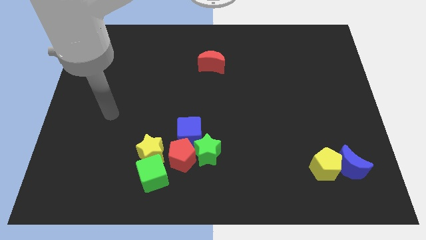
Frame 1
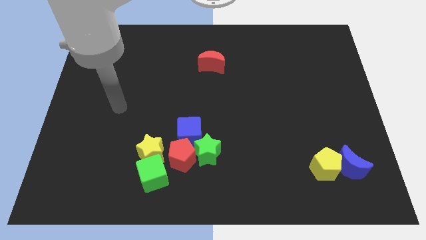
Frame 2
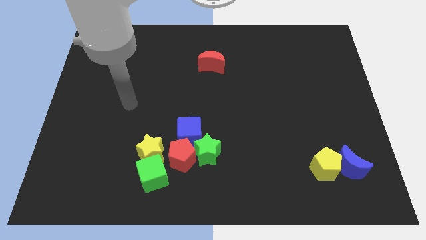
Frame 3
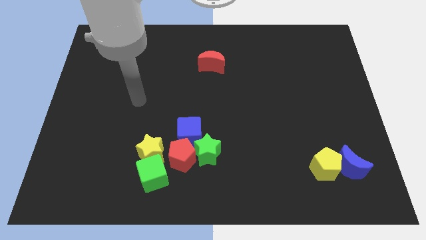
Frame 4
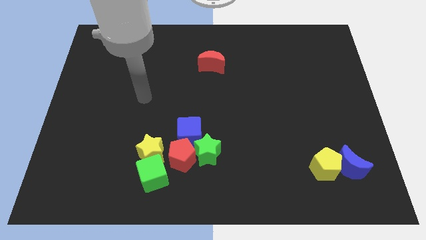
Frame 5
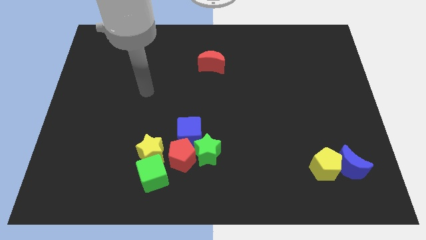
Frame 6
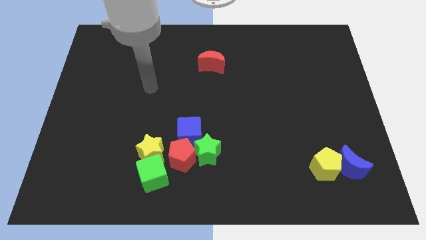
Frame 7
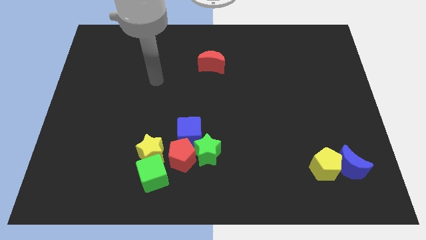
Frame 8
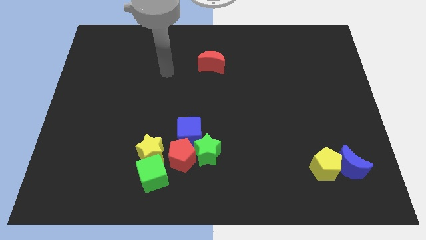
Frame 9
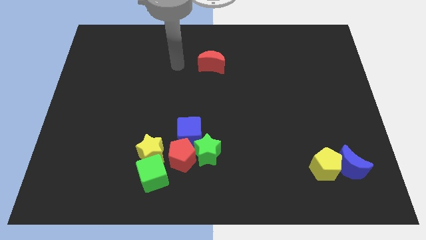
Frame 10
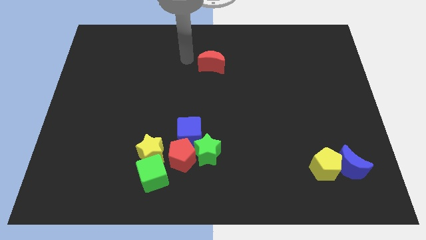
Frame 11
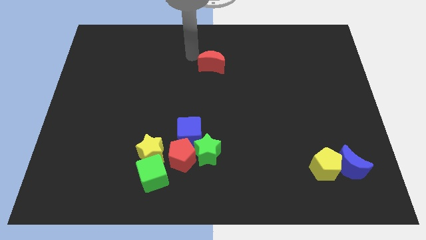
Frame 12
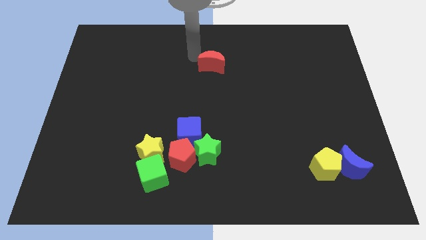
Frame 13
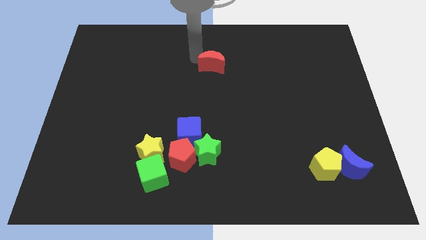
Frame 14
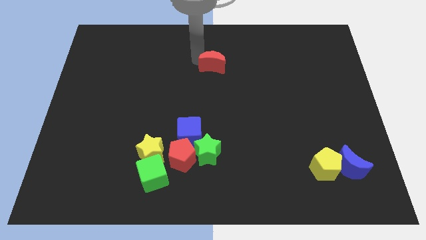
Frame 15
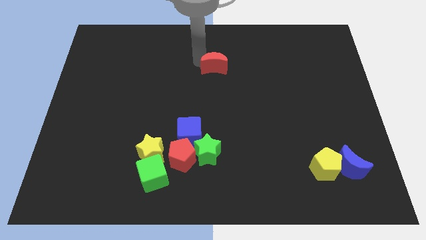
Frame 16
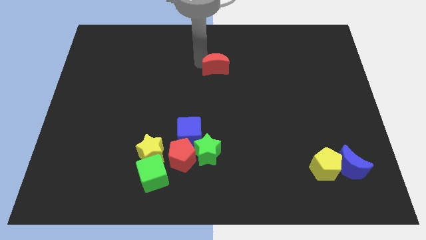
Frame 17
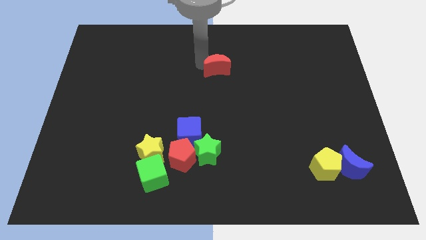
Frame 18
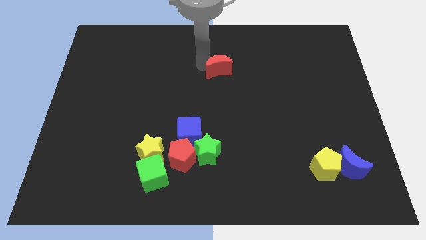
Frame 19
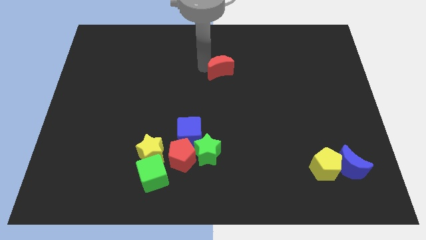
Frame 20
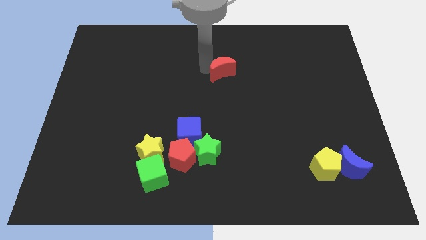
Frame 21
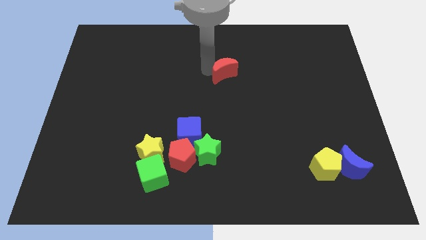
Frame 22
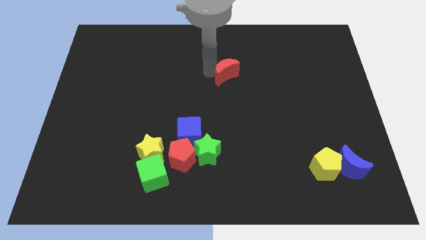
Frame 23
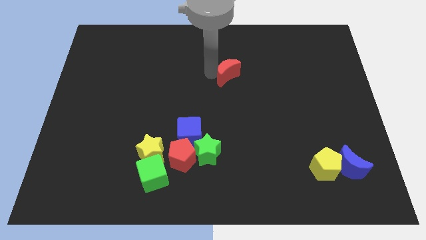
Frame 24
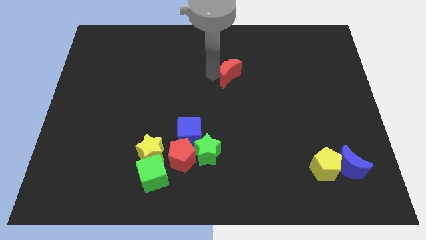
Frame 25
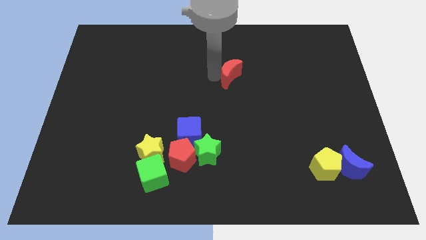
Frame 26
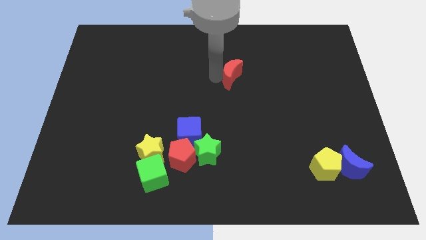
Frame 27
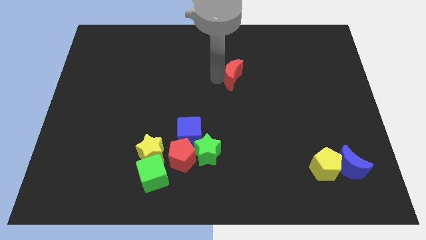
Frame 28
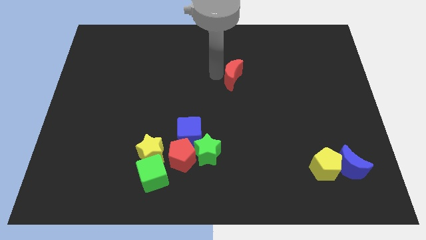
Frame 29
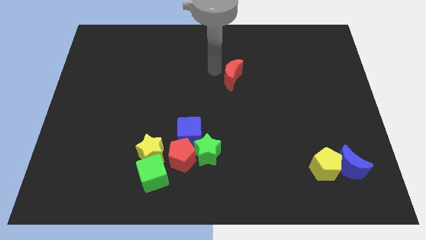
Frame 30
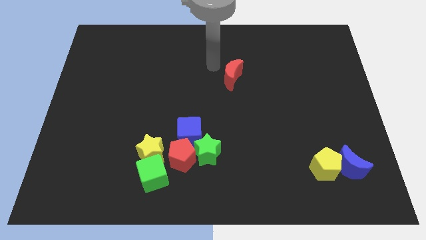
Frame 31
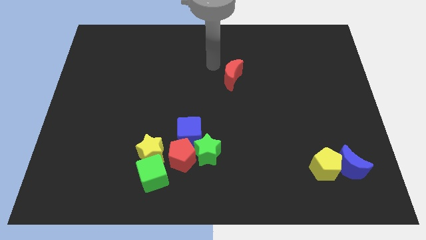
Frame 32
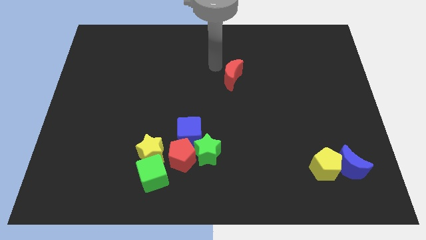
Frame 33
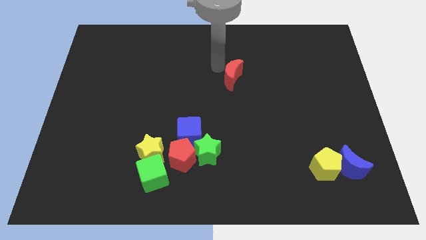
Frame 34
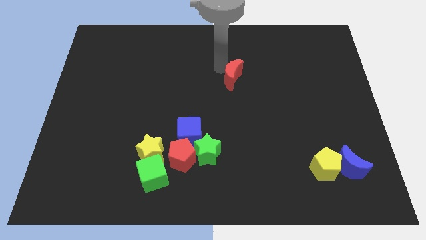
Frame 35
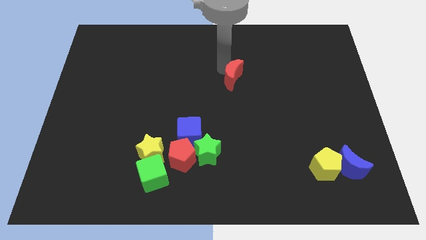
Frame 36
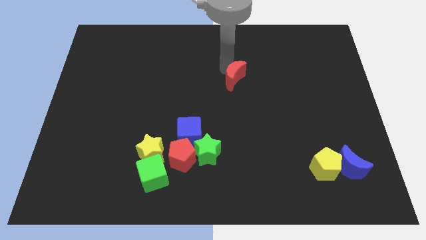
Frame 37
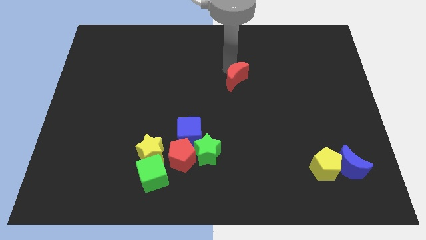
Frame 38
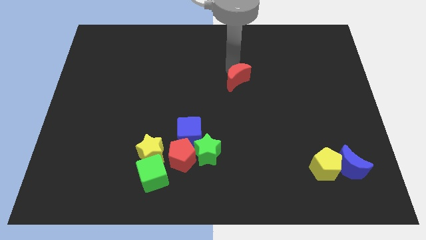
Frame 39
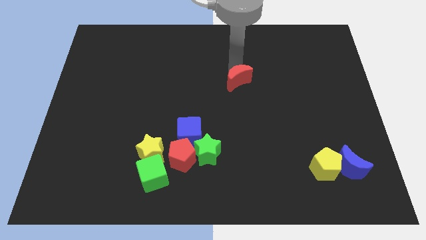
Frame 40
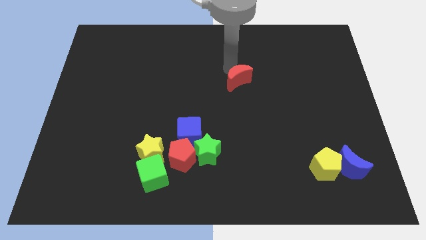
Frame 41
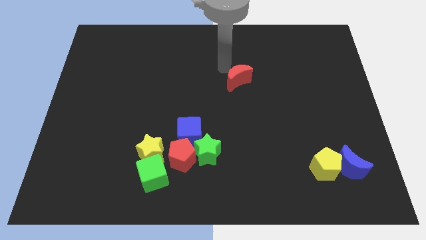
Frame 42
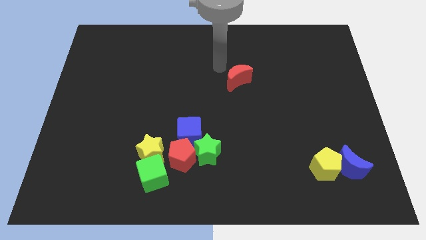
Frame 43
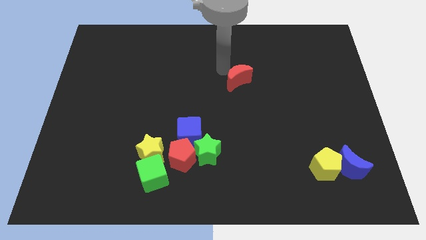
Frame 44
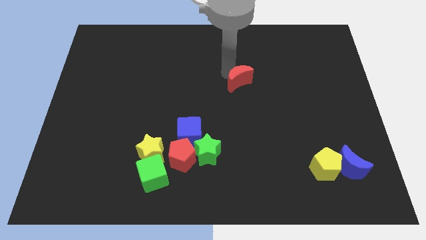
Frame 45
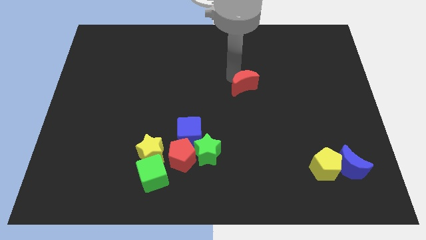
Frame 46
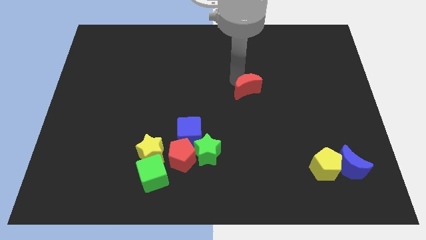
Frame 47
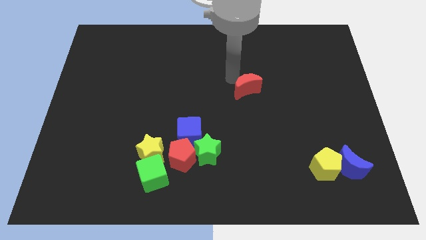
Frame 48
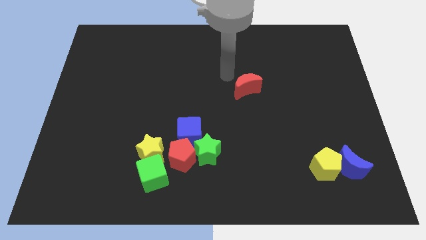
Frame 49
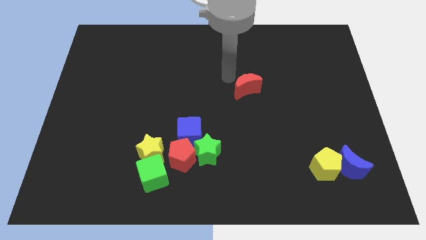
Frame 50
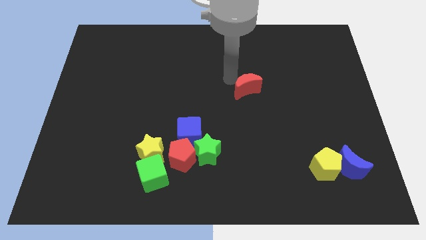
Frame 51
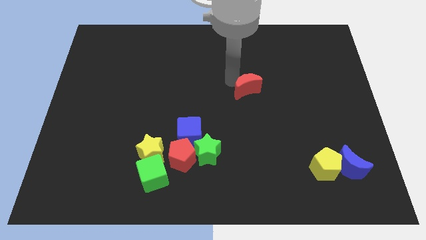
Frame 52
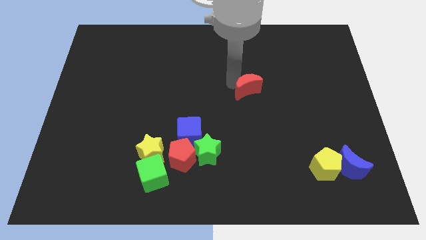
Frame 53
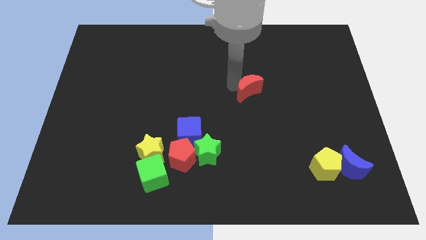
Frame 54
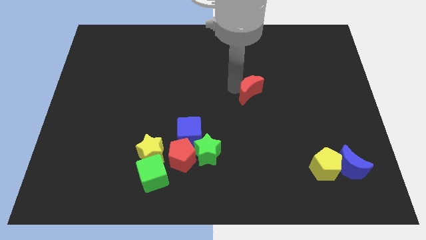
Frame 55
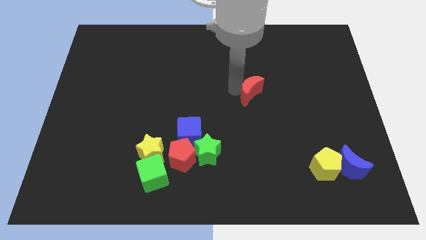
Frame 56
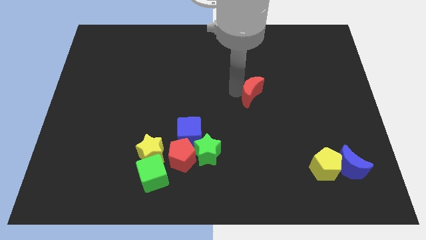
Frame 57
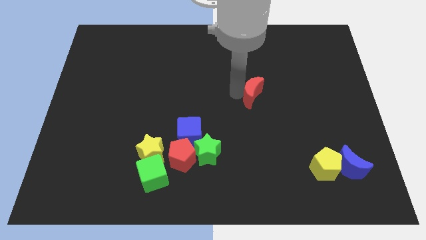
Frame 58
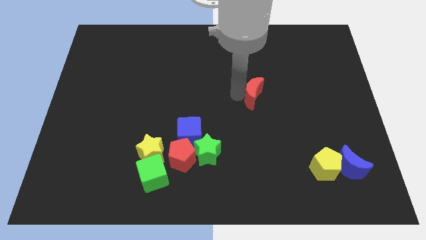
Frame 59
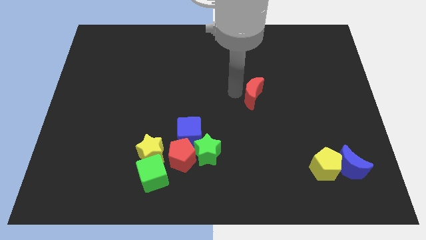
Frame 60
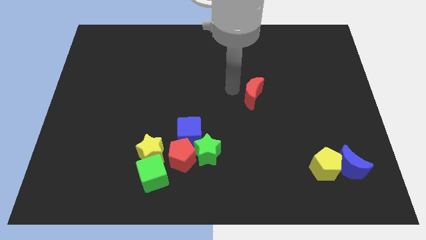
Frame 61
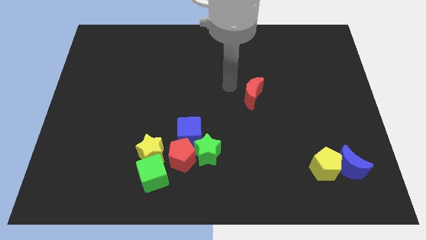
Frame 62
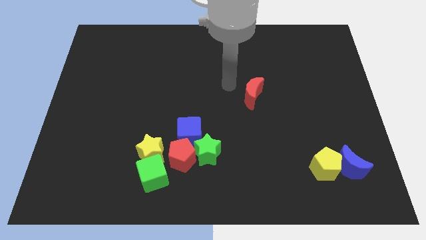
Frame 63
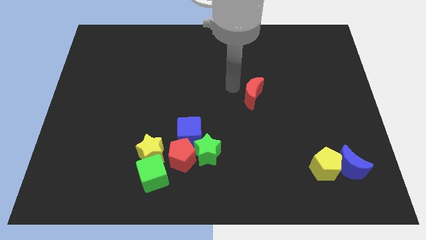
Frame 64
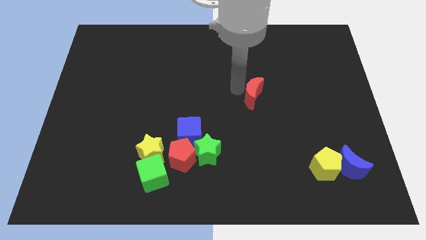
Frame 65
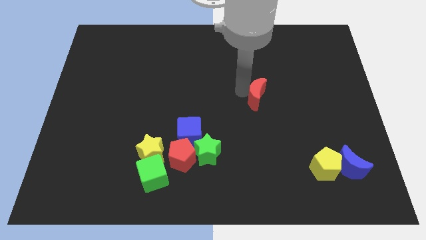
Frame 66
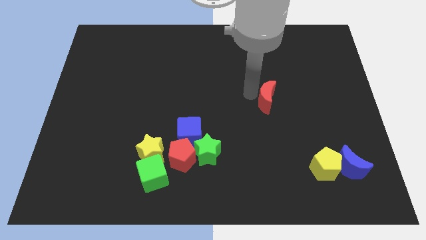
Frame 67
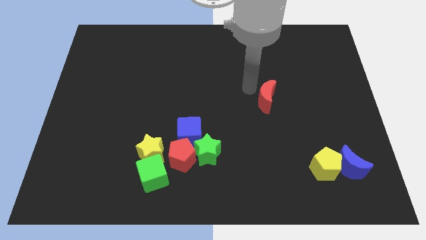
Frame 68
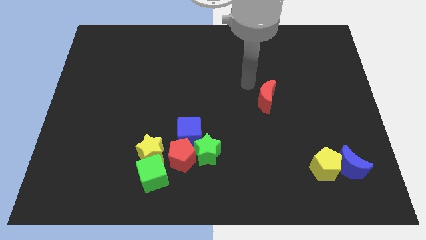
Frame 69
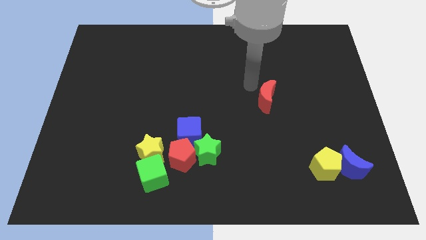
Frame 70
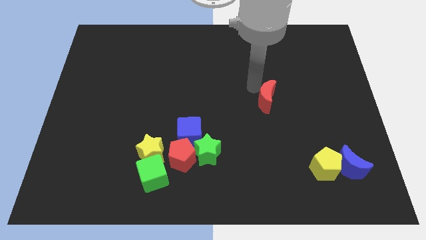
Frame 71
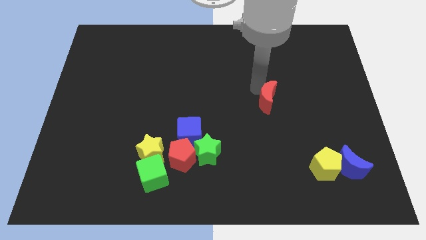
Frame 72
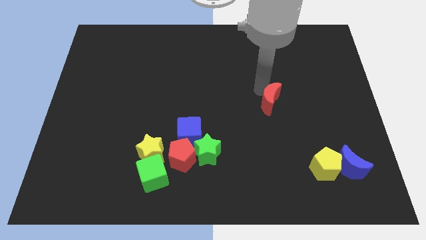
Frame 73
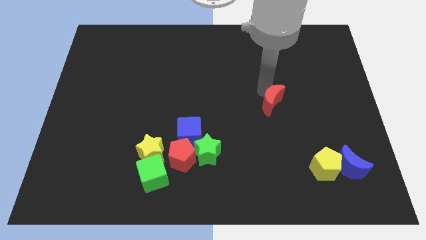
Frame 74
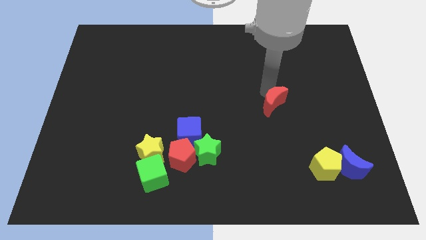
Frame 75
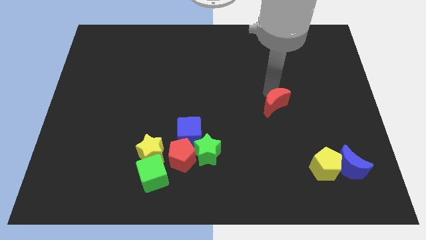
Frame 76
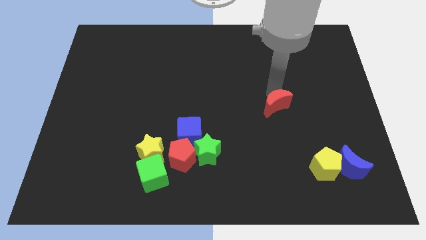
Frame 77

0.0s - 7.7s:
slide the red moon downwards and then to the right

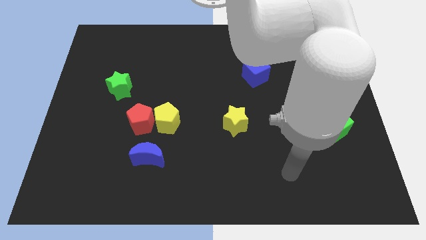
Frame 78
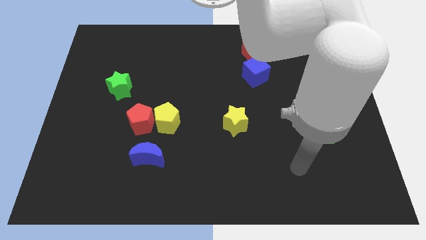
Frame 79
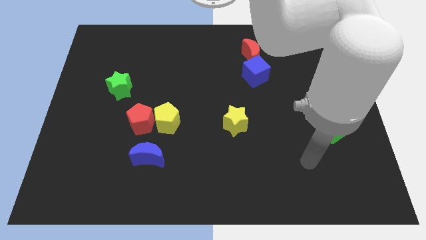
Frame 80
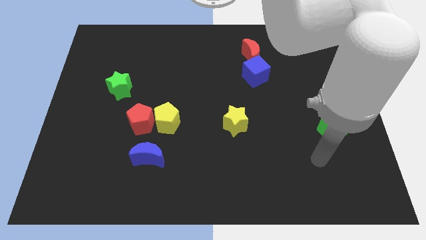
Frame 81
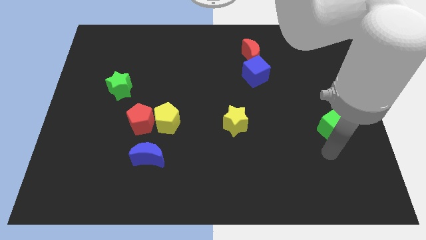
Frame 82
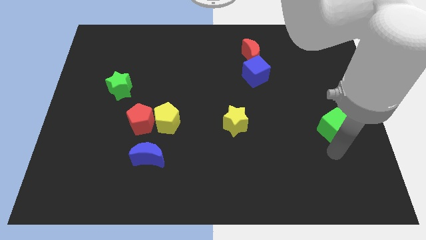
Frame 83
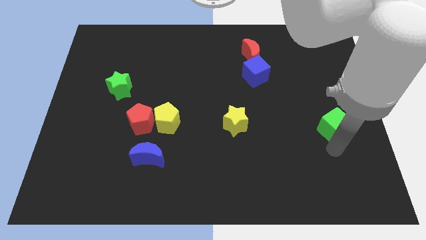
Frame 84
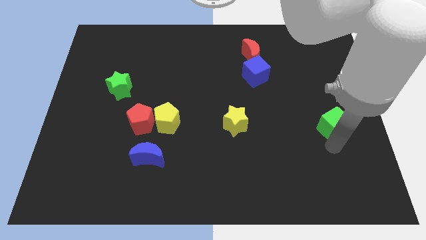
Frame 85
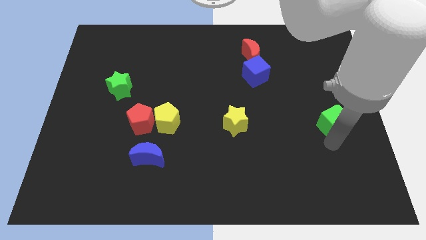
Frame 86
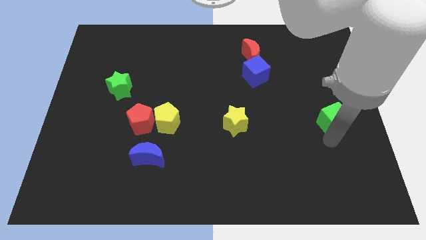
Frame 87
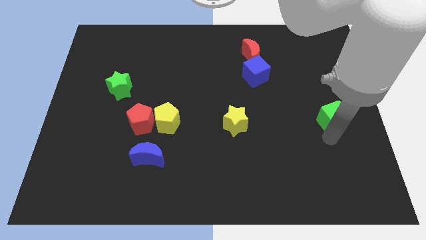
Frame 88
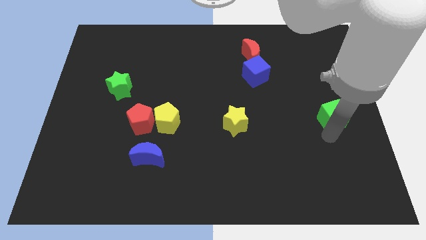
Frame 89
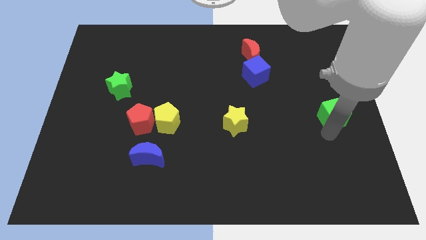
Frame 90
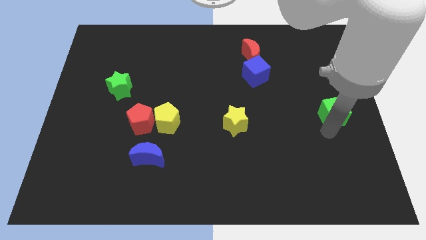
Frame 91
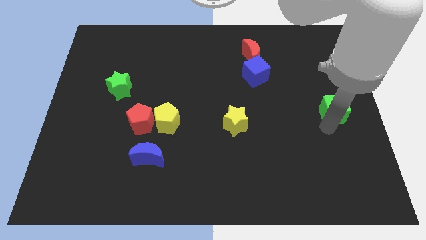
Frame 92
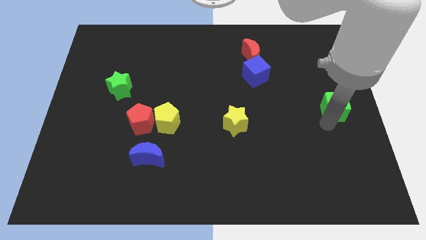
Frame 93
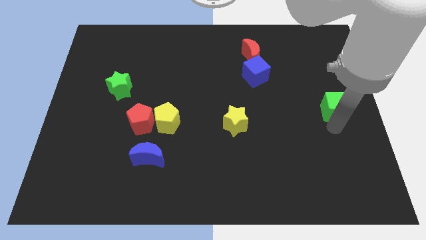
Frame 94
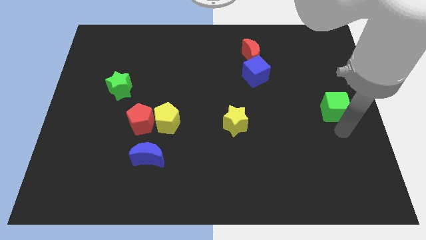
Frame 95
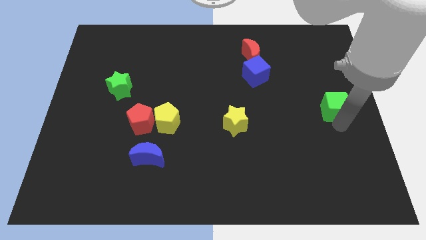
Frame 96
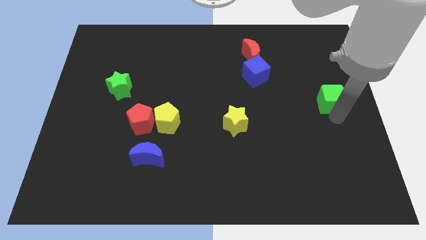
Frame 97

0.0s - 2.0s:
slide the green cube somewhat up
